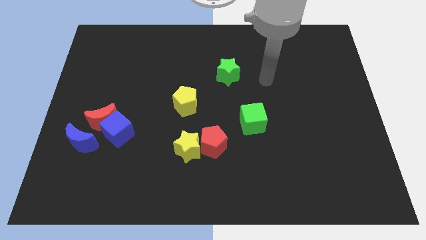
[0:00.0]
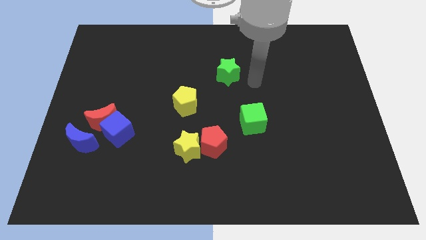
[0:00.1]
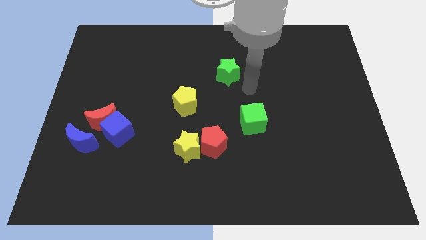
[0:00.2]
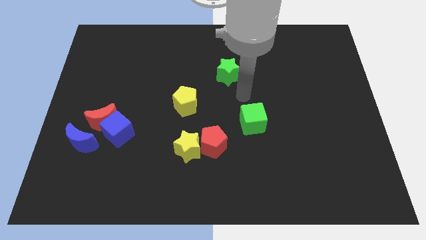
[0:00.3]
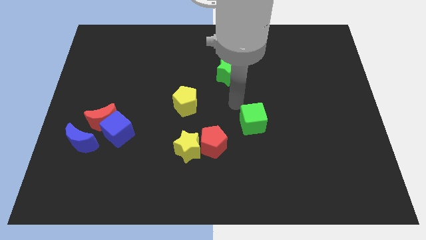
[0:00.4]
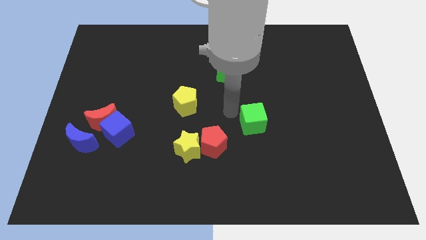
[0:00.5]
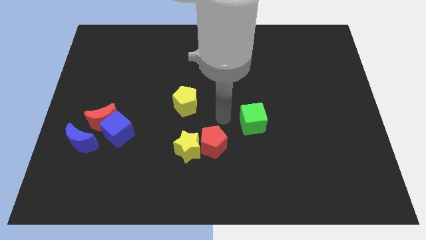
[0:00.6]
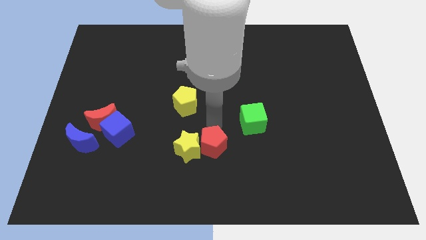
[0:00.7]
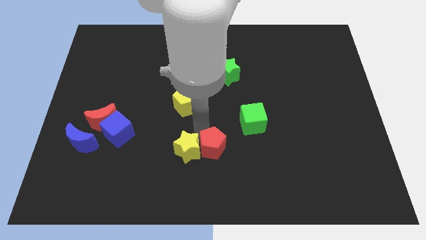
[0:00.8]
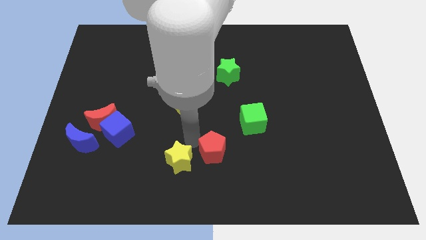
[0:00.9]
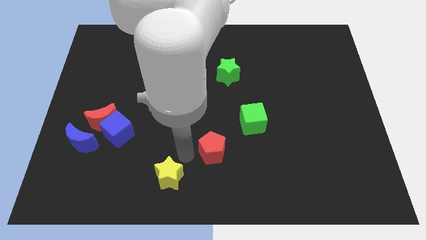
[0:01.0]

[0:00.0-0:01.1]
move the red pentagon away from the yellow star

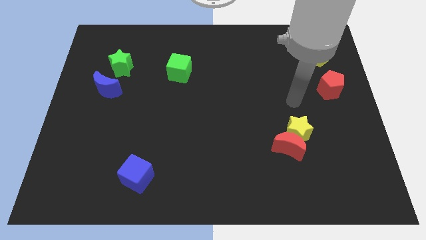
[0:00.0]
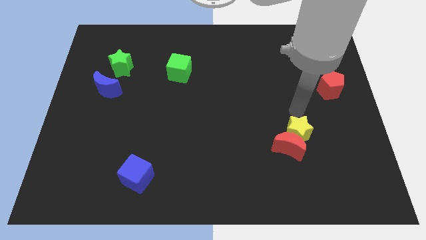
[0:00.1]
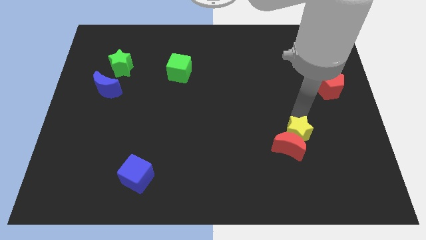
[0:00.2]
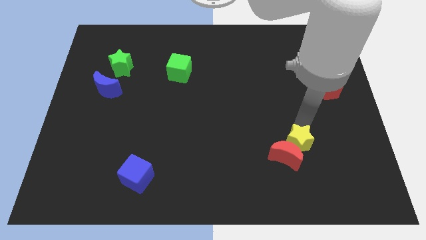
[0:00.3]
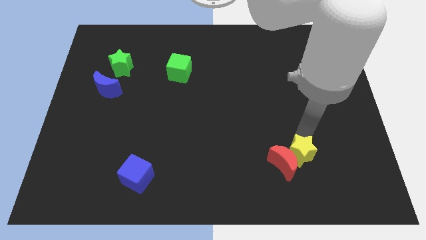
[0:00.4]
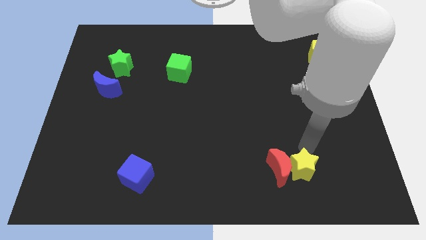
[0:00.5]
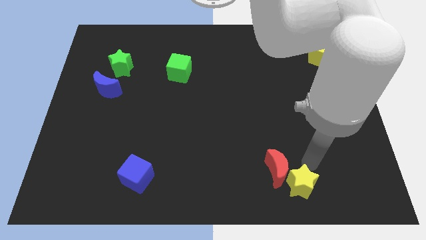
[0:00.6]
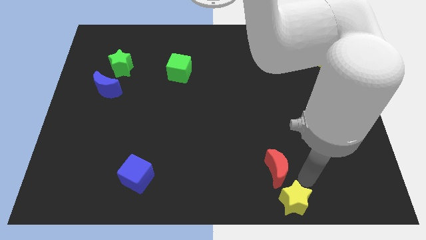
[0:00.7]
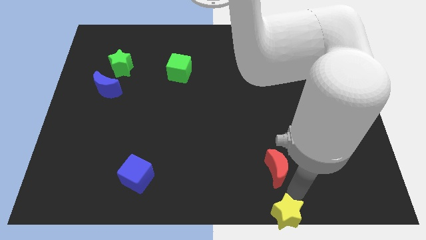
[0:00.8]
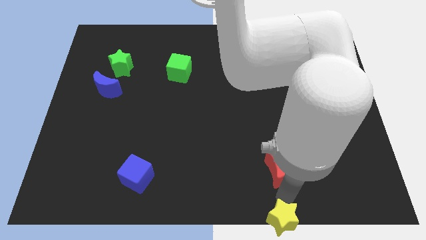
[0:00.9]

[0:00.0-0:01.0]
move the red moon away from the yellow star

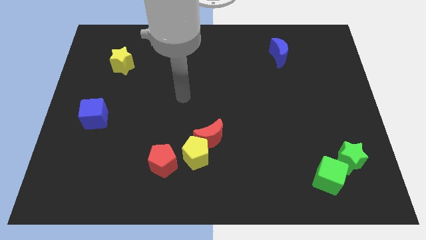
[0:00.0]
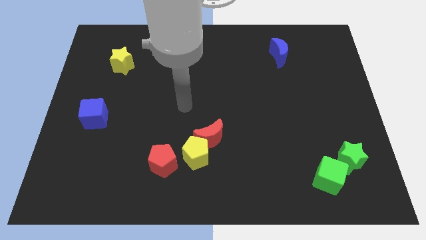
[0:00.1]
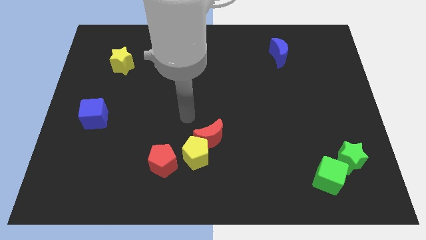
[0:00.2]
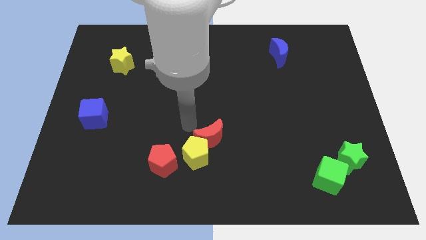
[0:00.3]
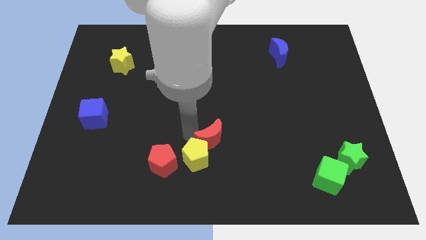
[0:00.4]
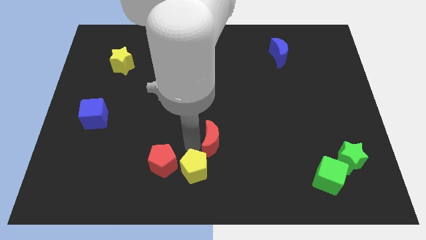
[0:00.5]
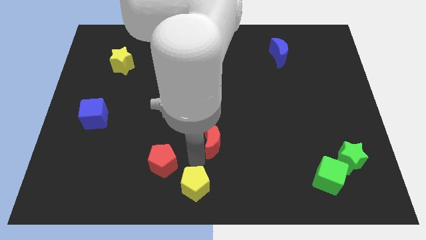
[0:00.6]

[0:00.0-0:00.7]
pull the red moon apart from the yellow pentagon

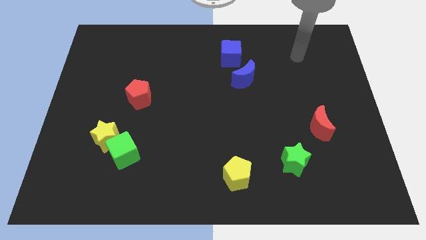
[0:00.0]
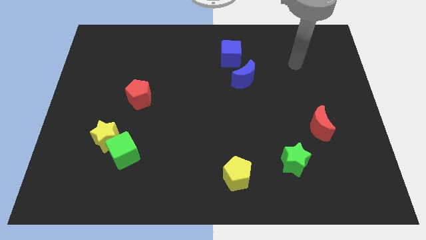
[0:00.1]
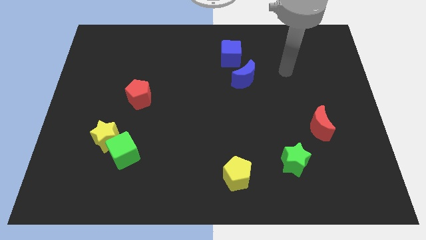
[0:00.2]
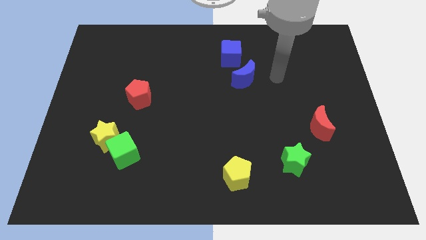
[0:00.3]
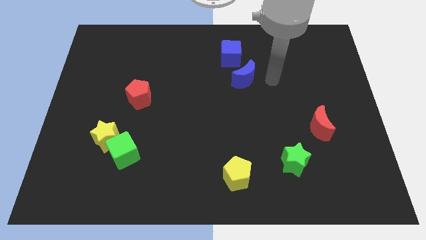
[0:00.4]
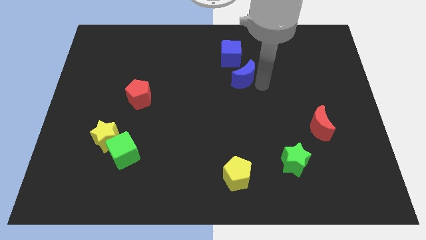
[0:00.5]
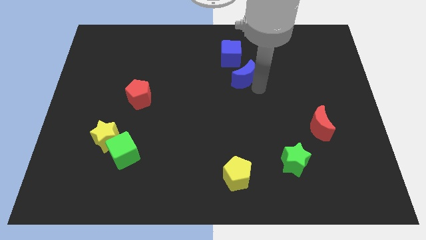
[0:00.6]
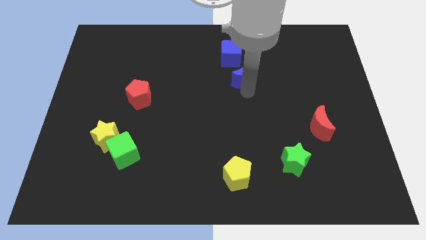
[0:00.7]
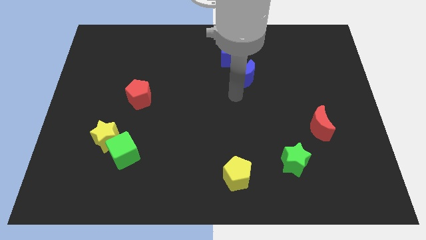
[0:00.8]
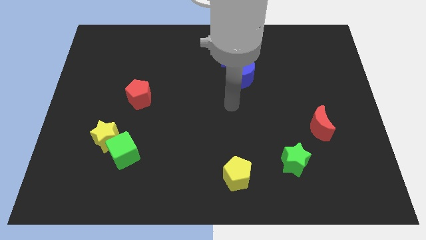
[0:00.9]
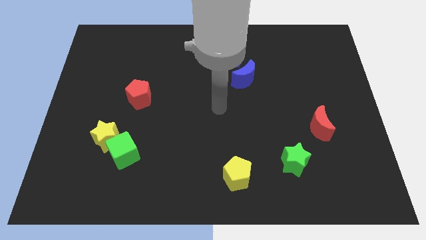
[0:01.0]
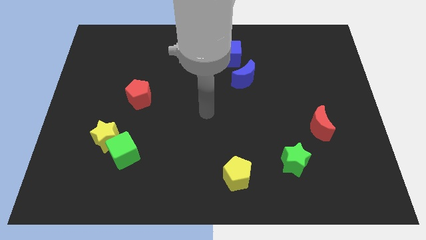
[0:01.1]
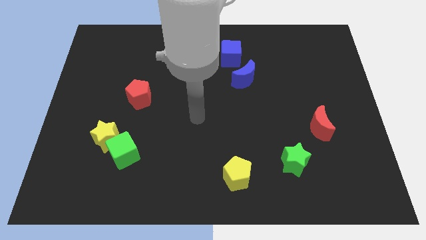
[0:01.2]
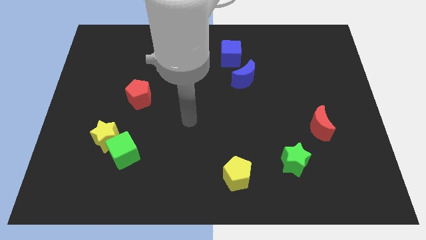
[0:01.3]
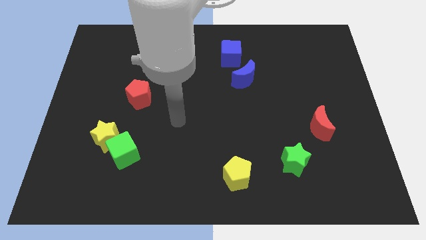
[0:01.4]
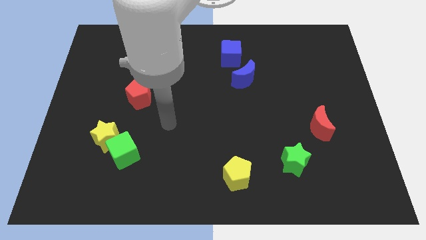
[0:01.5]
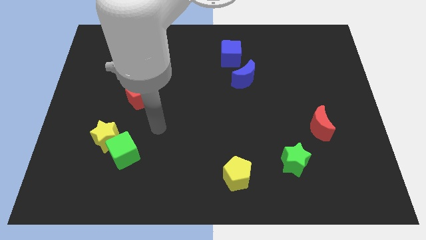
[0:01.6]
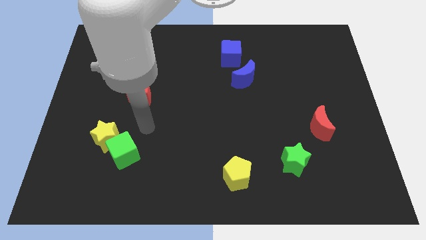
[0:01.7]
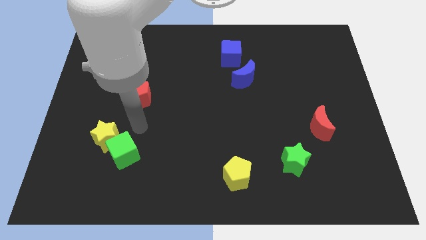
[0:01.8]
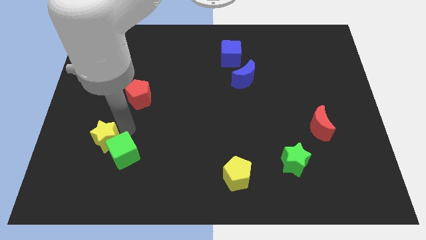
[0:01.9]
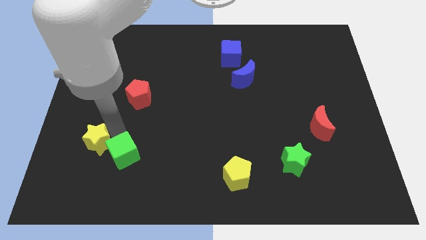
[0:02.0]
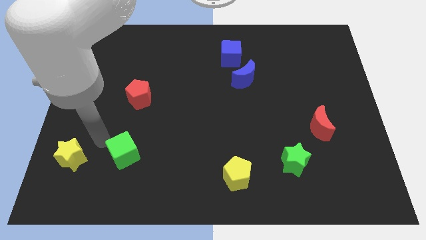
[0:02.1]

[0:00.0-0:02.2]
separate the green cube from the yellow star

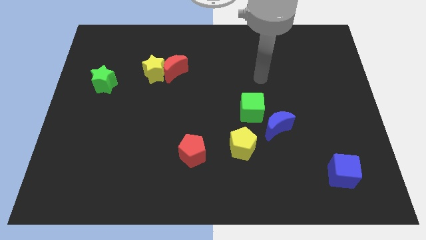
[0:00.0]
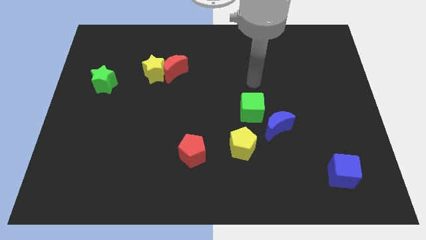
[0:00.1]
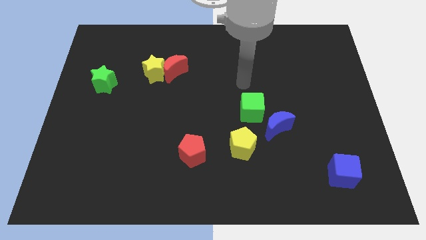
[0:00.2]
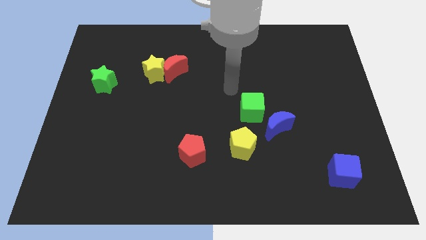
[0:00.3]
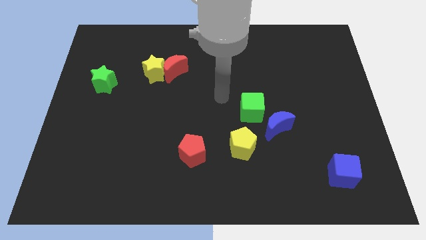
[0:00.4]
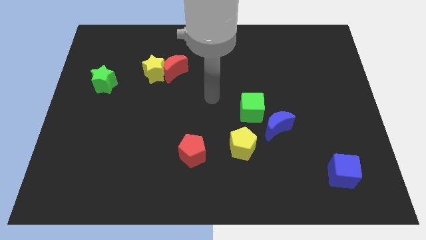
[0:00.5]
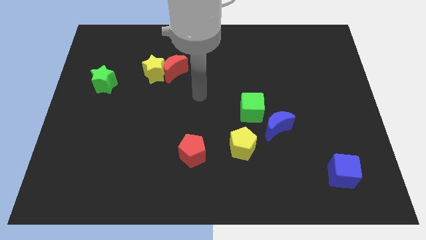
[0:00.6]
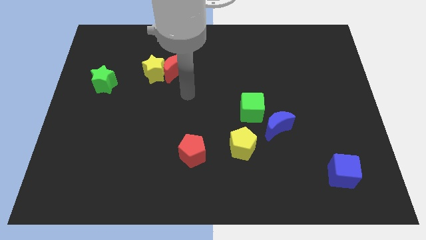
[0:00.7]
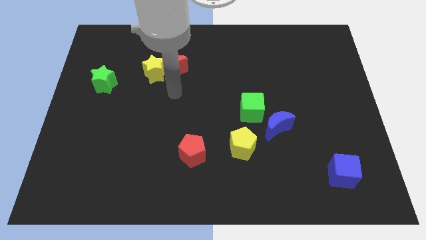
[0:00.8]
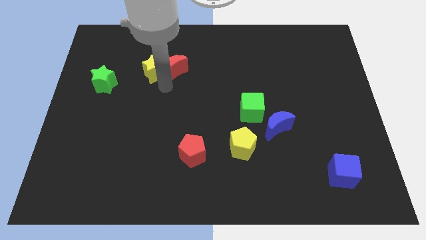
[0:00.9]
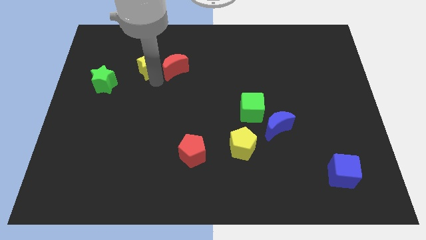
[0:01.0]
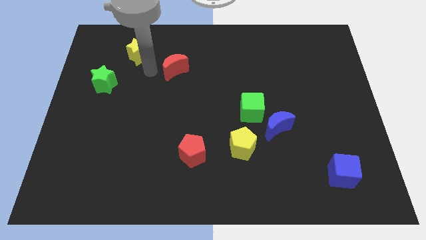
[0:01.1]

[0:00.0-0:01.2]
separate the red moon from the yellow star

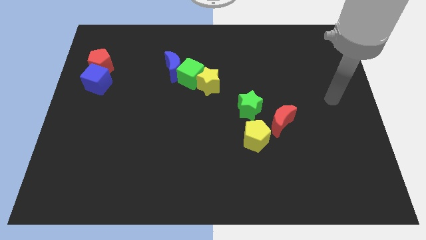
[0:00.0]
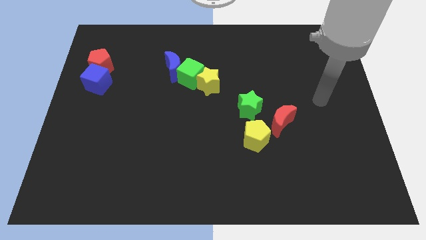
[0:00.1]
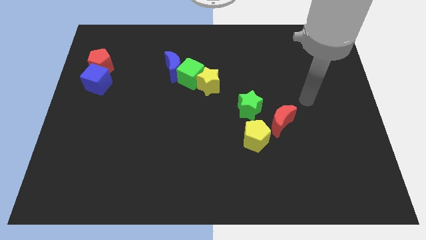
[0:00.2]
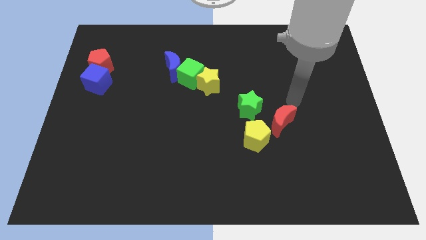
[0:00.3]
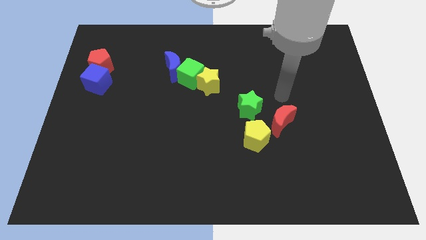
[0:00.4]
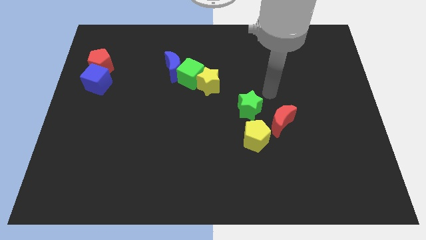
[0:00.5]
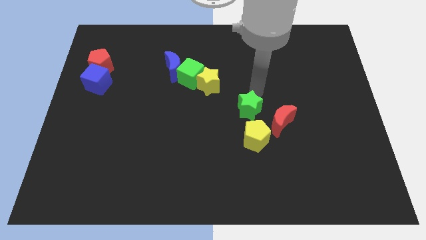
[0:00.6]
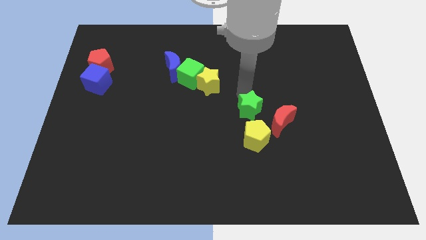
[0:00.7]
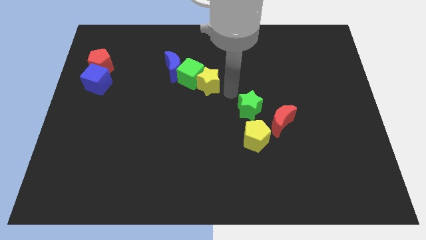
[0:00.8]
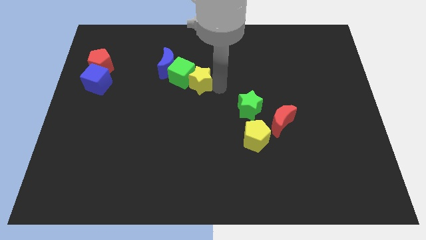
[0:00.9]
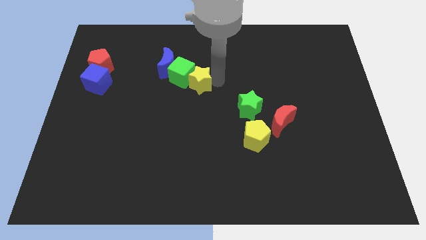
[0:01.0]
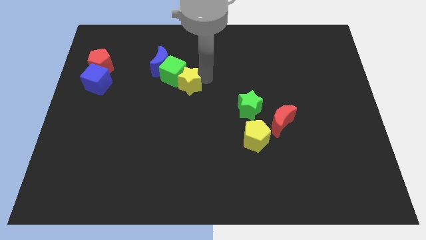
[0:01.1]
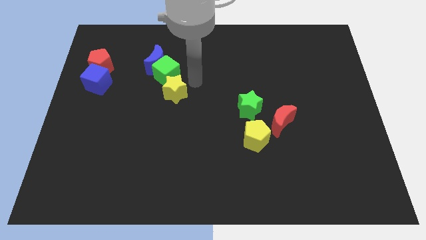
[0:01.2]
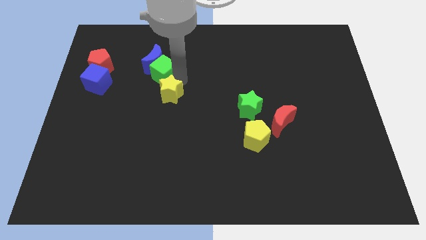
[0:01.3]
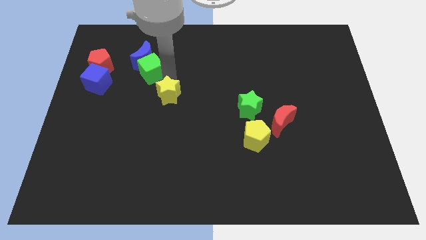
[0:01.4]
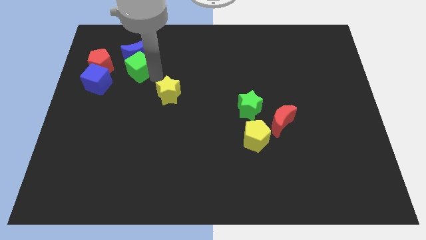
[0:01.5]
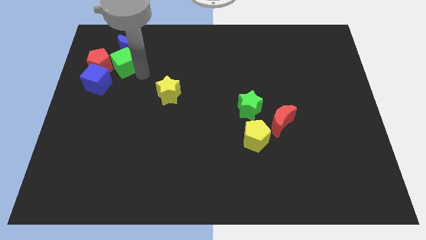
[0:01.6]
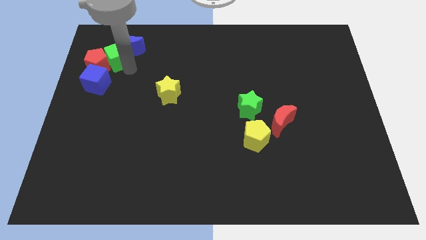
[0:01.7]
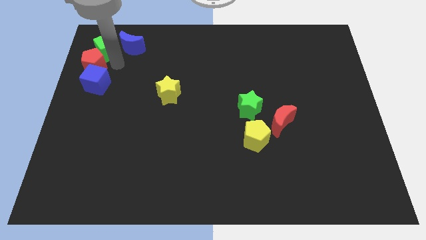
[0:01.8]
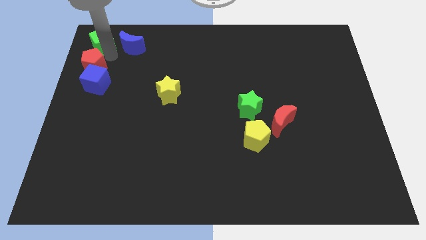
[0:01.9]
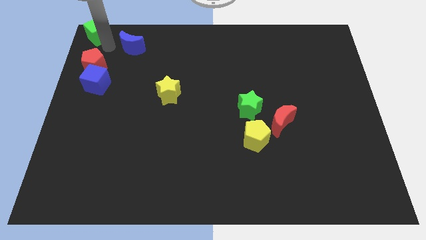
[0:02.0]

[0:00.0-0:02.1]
separate the blue moon from the green cube

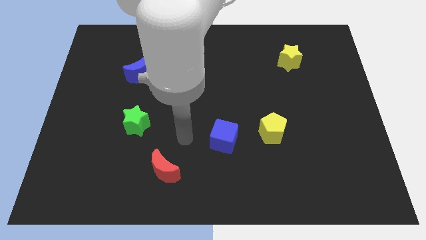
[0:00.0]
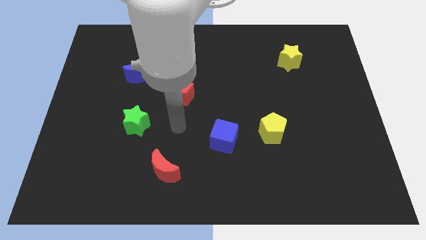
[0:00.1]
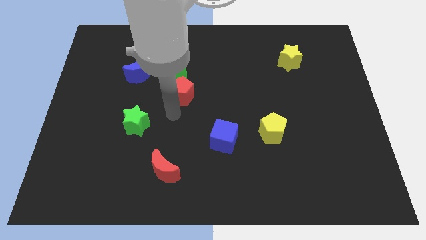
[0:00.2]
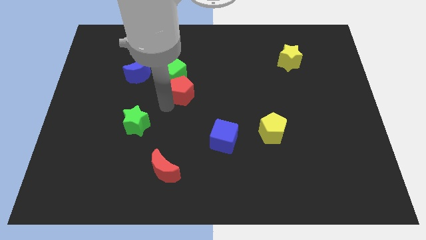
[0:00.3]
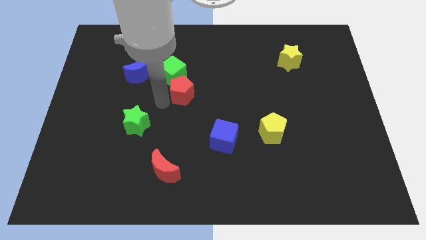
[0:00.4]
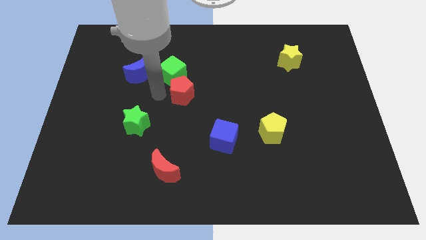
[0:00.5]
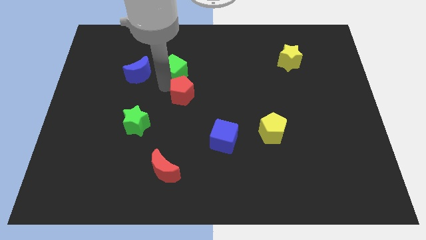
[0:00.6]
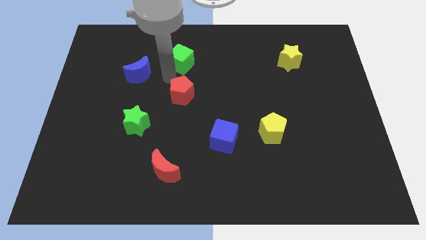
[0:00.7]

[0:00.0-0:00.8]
pull the red pentagon apart from the green cube
